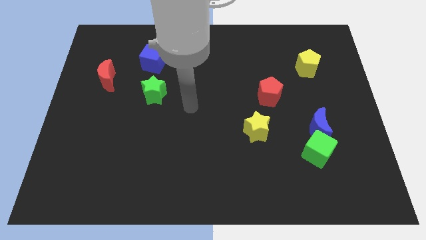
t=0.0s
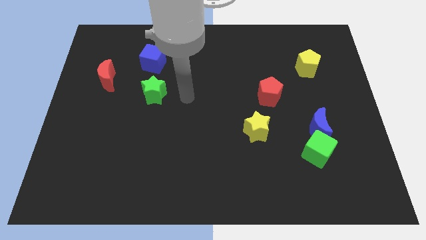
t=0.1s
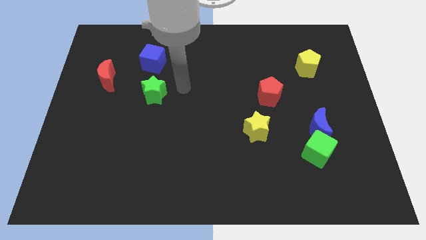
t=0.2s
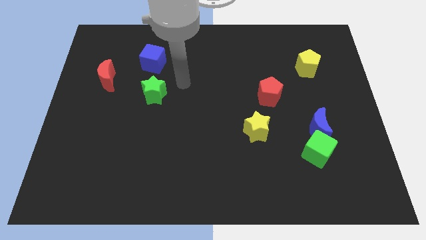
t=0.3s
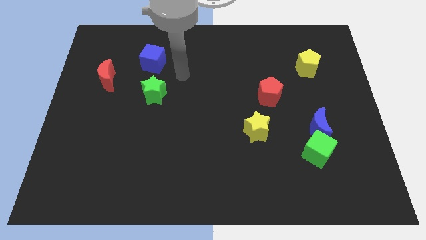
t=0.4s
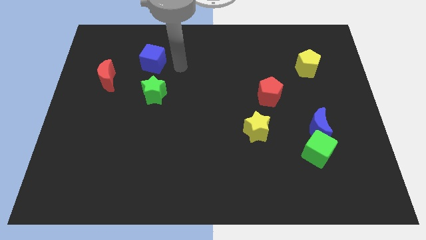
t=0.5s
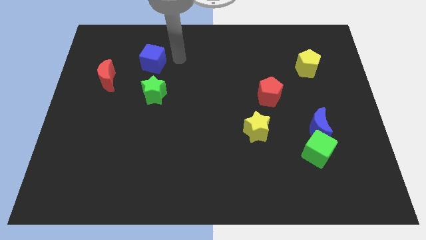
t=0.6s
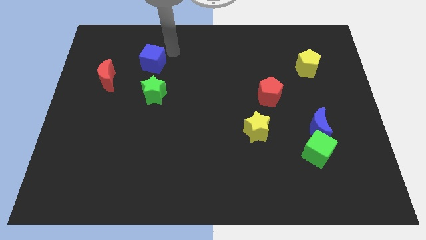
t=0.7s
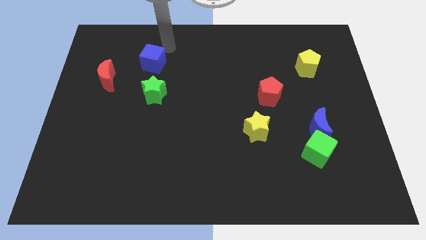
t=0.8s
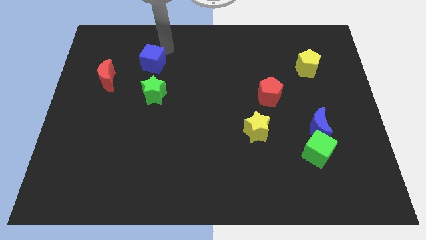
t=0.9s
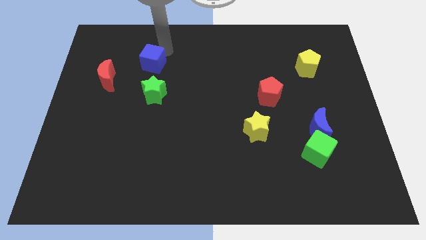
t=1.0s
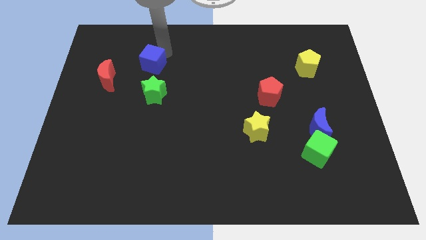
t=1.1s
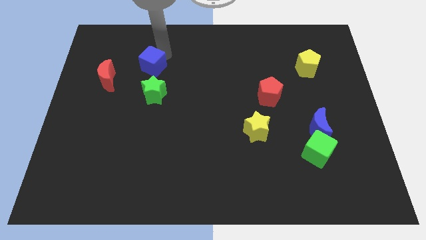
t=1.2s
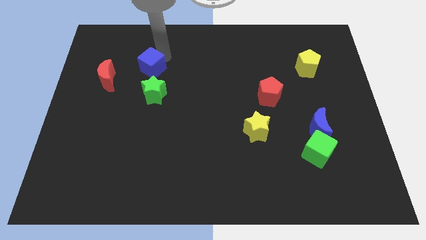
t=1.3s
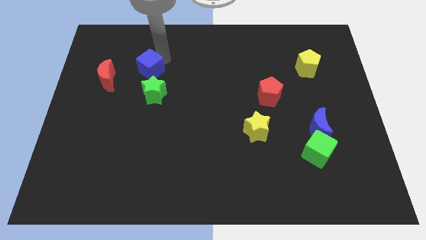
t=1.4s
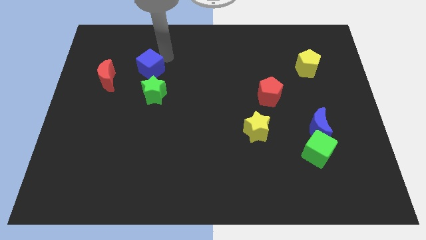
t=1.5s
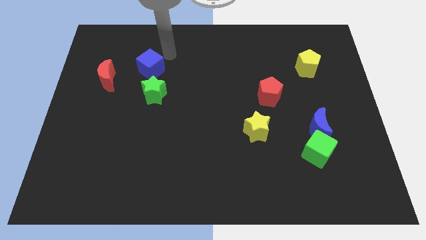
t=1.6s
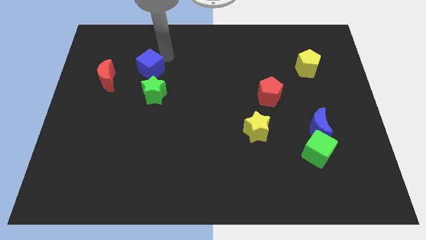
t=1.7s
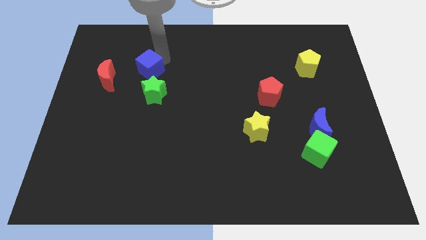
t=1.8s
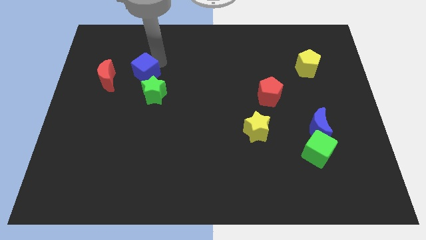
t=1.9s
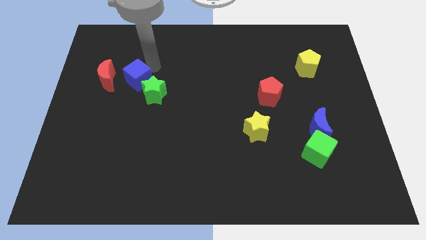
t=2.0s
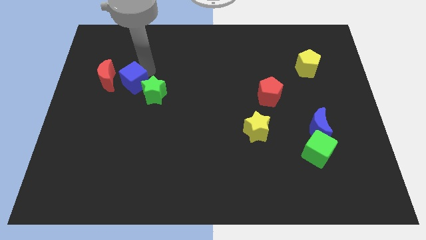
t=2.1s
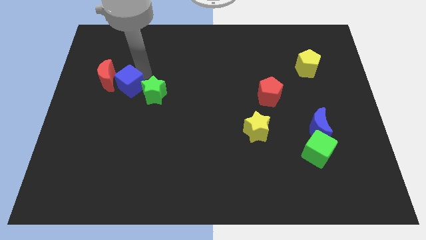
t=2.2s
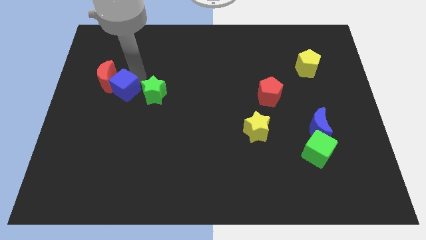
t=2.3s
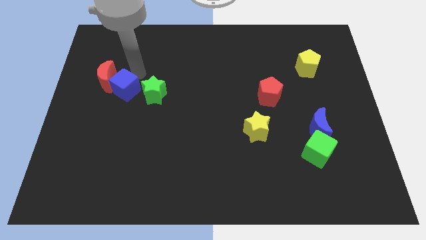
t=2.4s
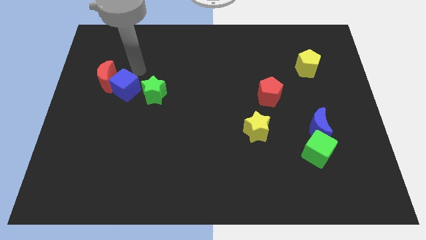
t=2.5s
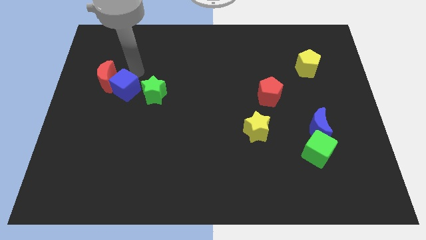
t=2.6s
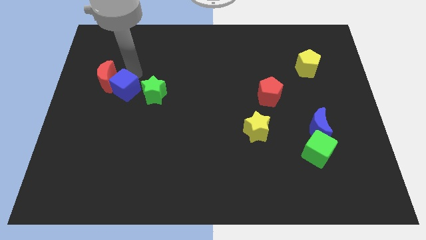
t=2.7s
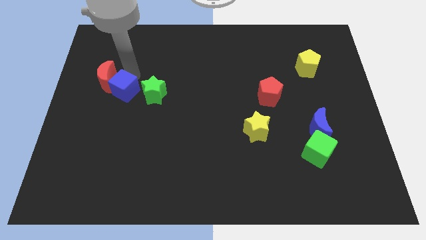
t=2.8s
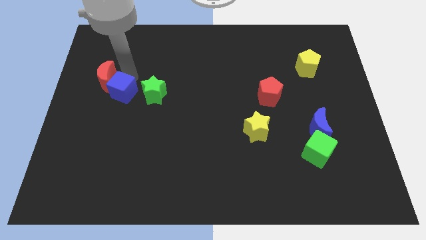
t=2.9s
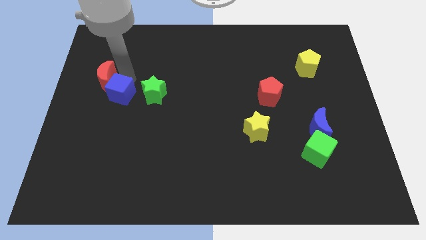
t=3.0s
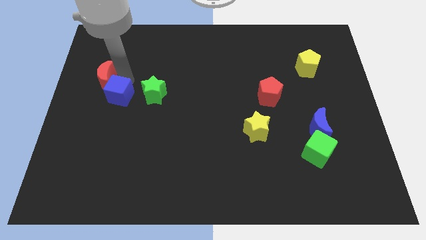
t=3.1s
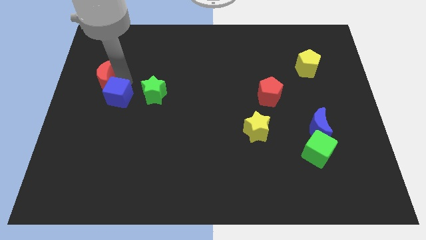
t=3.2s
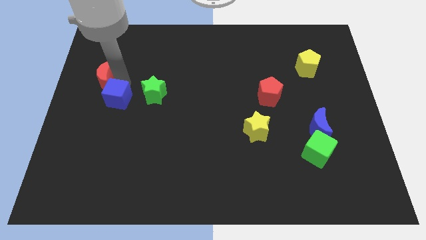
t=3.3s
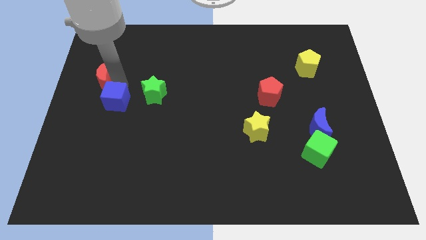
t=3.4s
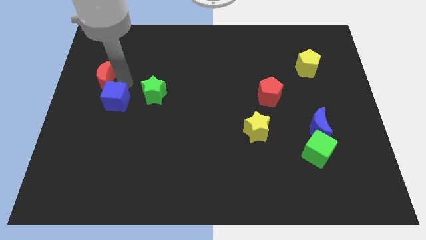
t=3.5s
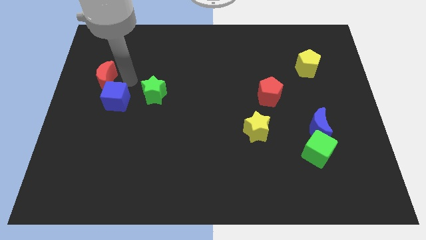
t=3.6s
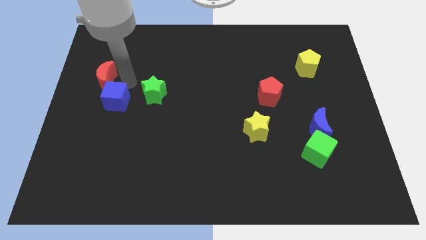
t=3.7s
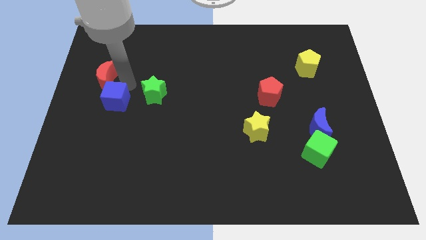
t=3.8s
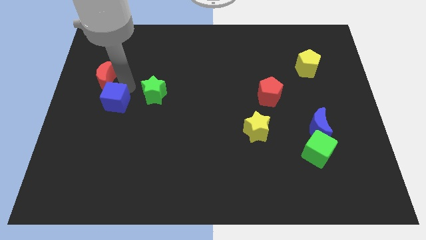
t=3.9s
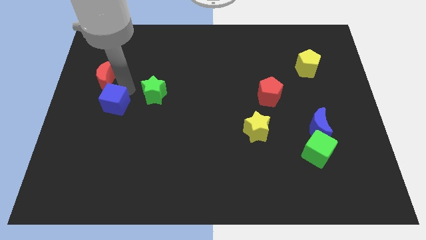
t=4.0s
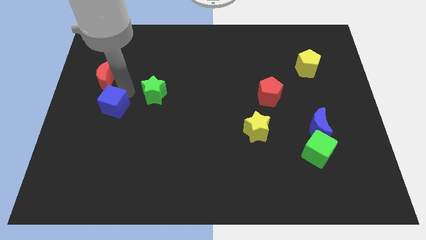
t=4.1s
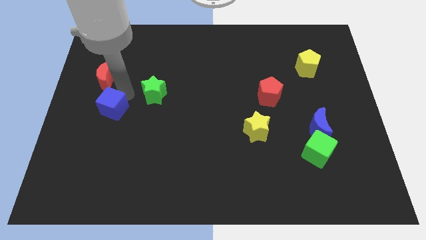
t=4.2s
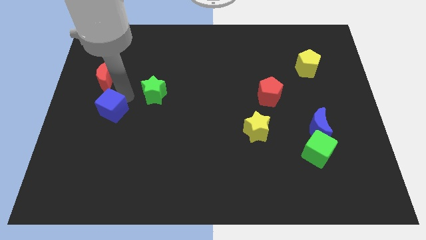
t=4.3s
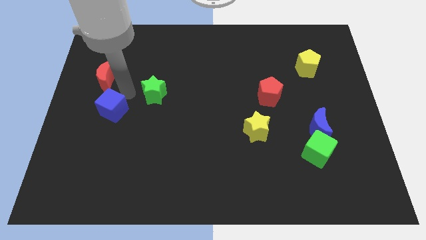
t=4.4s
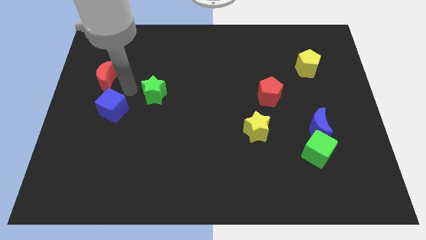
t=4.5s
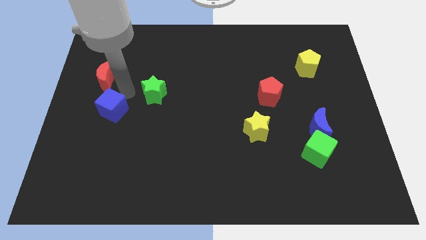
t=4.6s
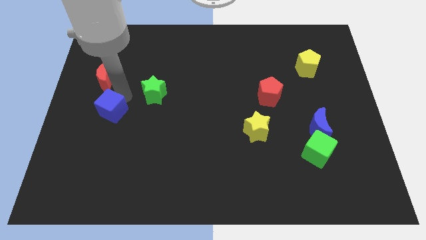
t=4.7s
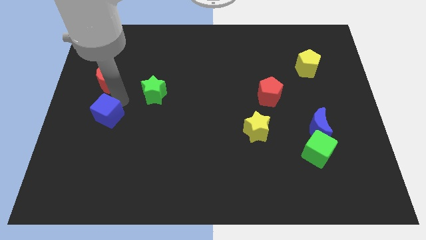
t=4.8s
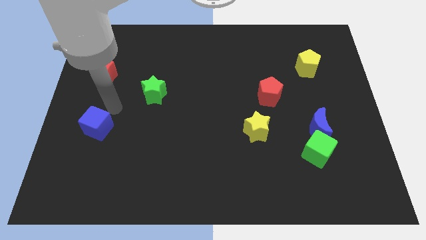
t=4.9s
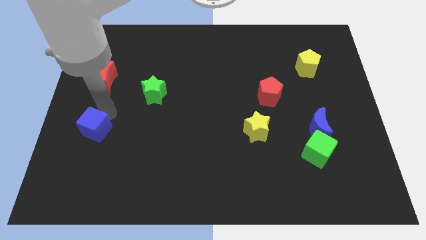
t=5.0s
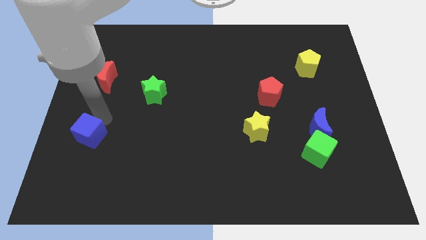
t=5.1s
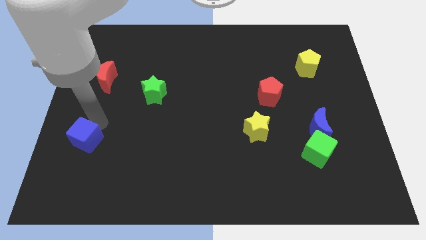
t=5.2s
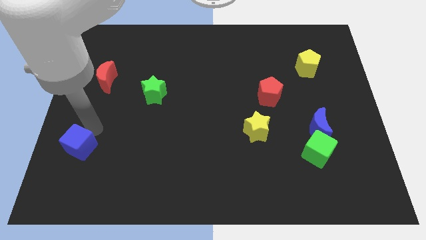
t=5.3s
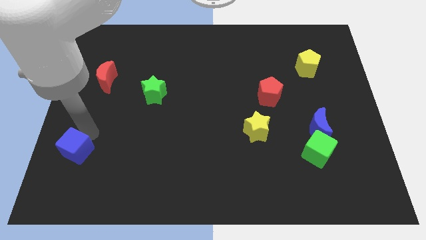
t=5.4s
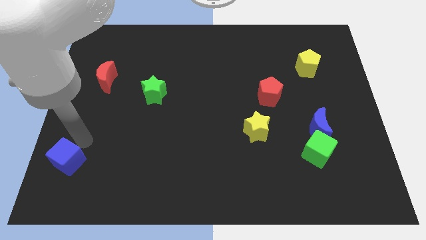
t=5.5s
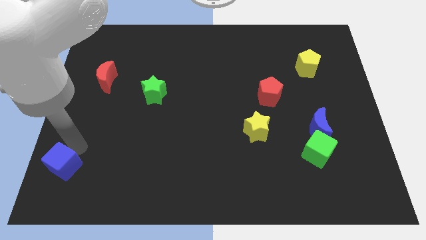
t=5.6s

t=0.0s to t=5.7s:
put the blue cube to the bottom left of the board

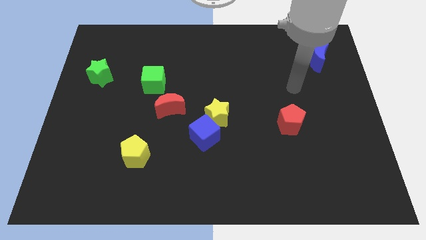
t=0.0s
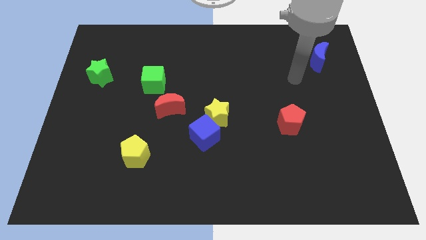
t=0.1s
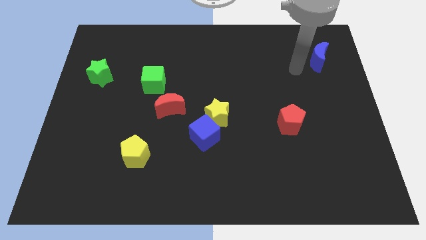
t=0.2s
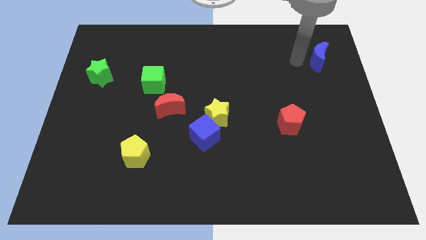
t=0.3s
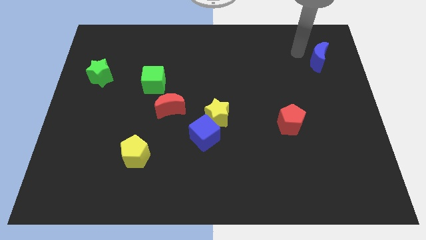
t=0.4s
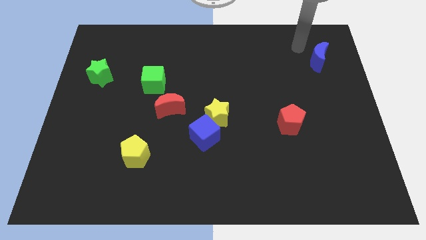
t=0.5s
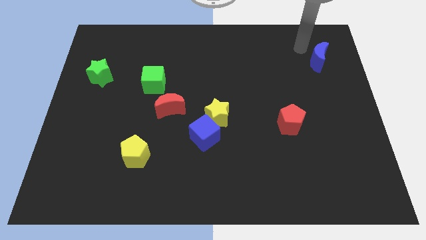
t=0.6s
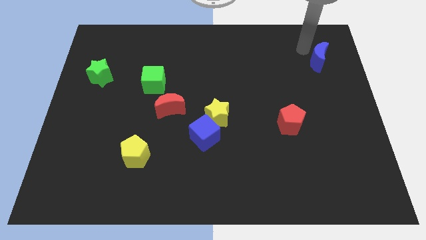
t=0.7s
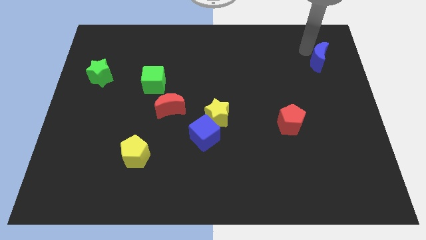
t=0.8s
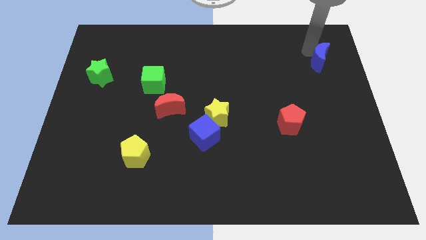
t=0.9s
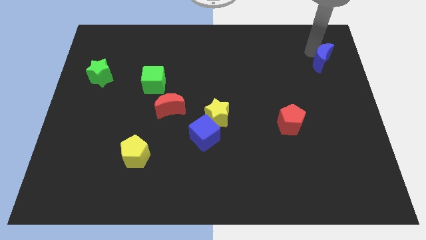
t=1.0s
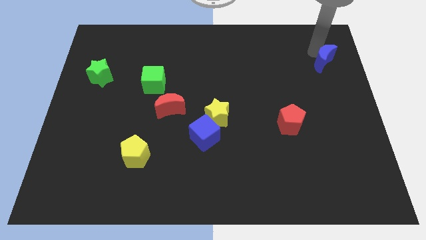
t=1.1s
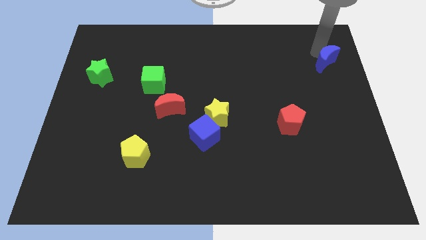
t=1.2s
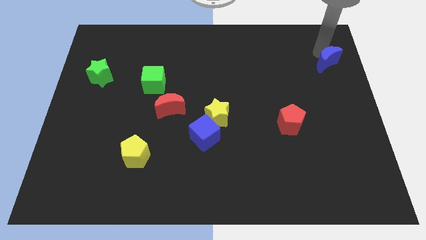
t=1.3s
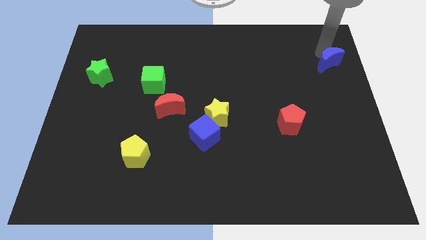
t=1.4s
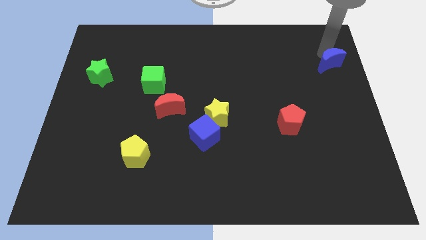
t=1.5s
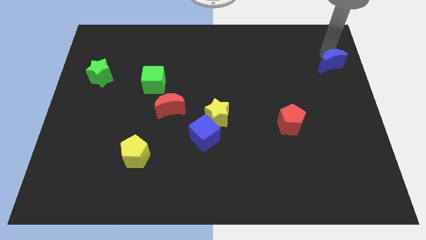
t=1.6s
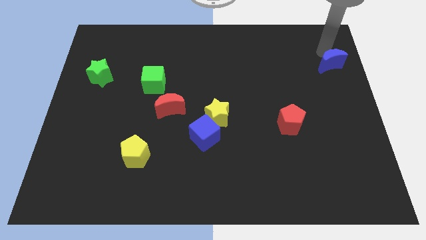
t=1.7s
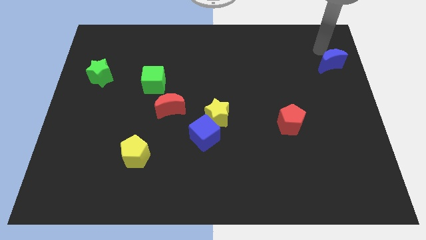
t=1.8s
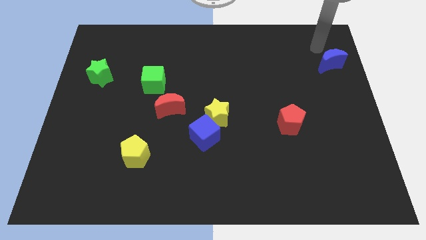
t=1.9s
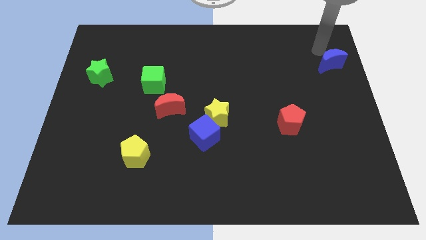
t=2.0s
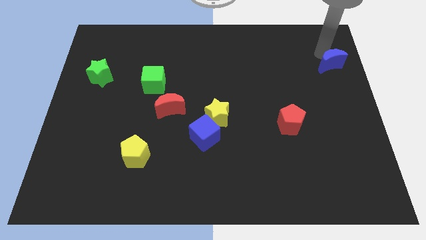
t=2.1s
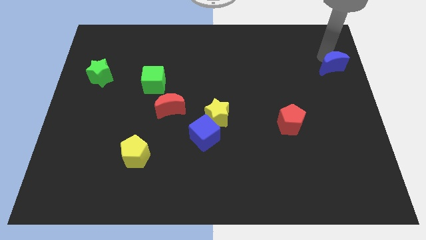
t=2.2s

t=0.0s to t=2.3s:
push the blue moon to the right side of the board
